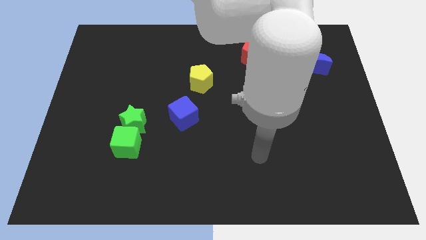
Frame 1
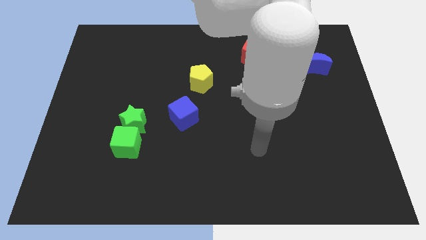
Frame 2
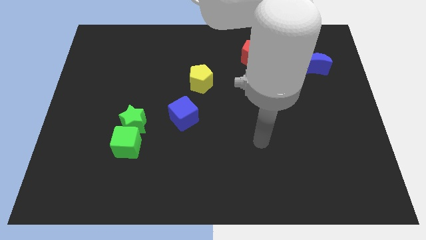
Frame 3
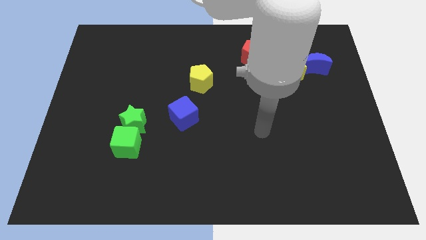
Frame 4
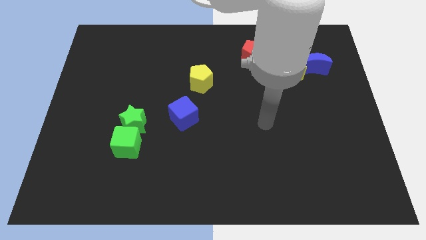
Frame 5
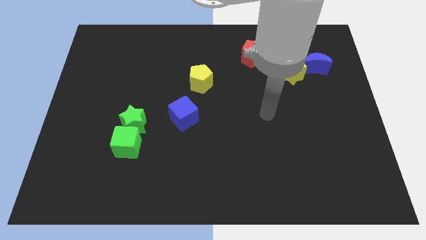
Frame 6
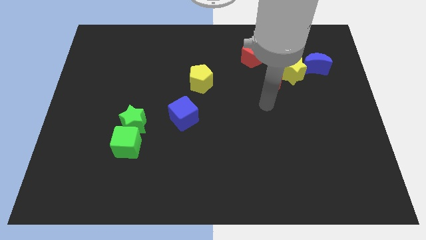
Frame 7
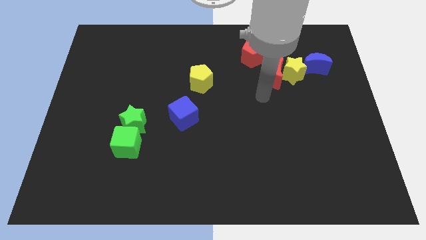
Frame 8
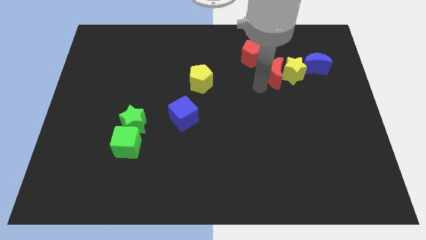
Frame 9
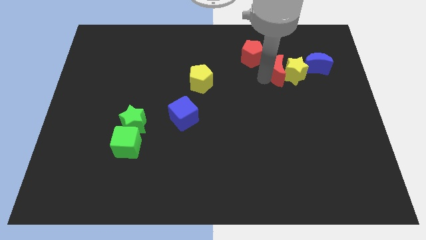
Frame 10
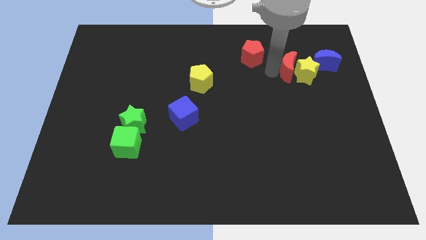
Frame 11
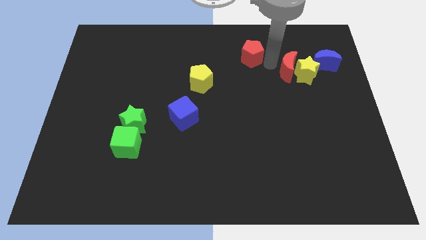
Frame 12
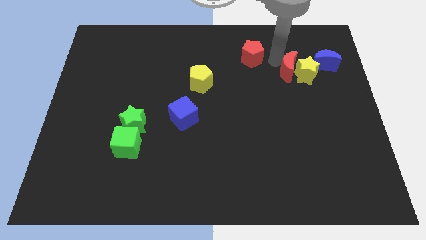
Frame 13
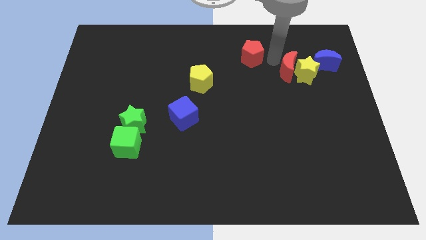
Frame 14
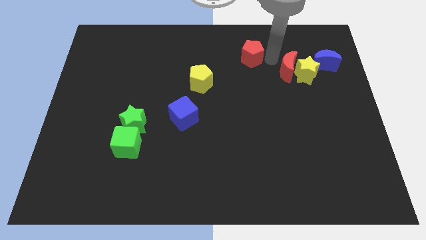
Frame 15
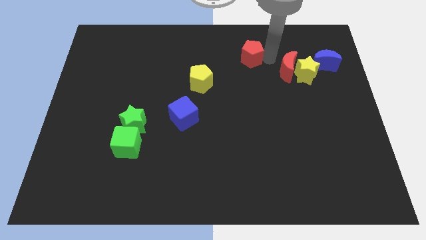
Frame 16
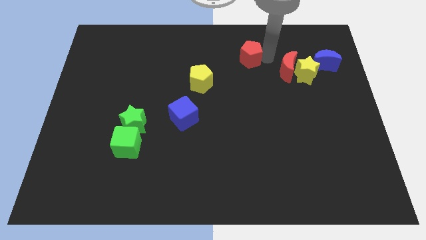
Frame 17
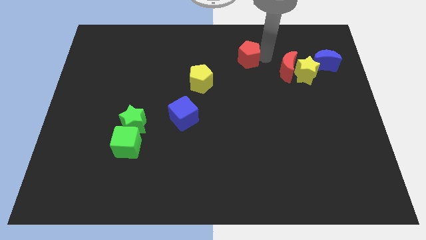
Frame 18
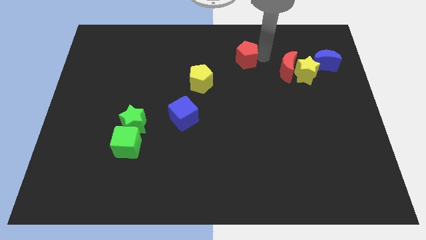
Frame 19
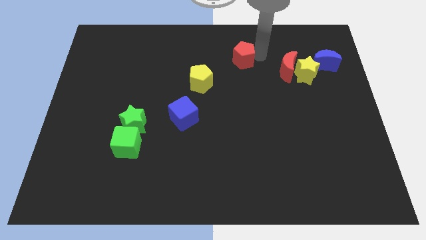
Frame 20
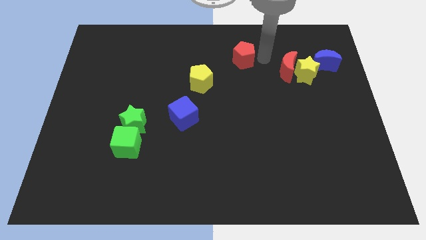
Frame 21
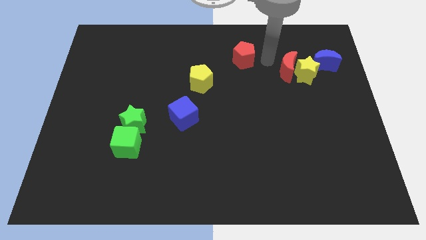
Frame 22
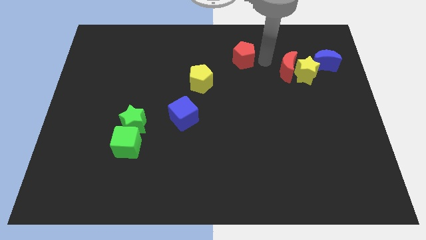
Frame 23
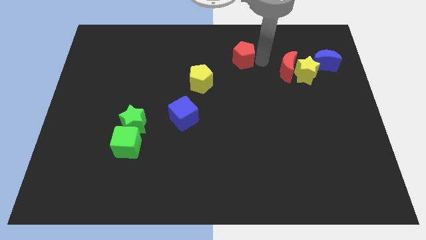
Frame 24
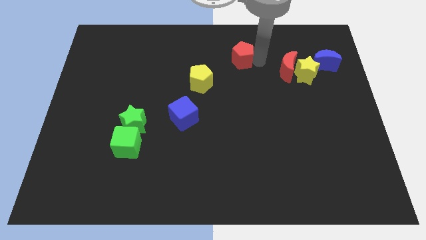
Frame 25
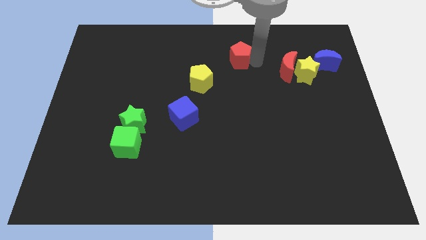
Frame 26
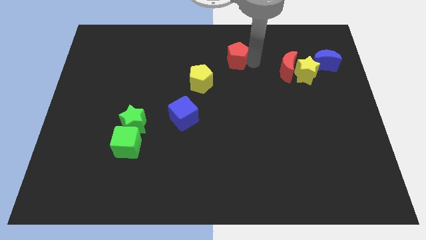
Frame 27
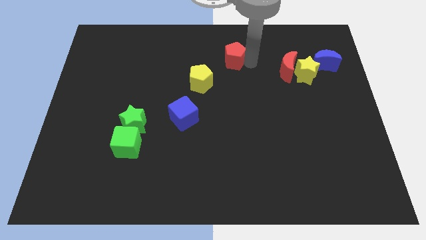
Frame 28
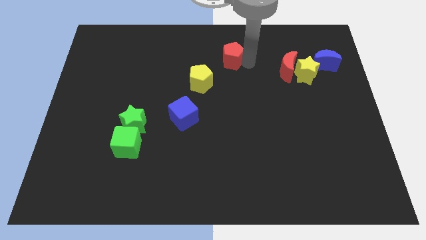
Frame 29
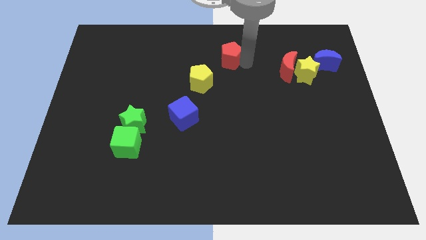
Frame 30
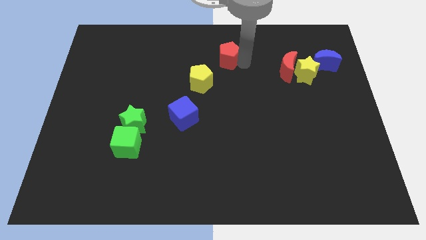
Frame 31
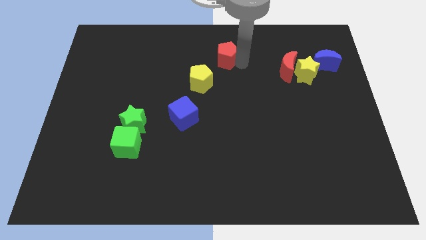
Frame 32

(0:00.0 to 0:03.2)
push the red pentagon a bit to the left

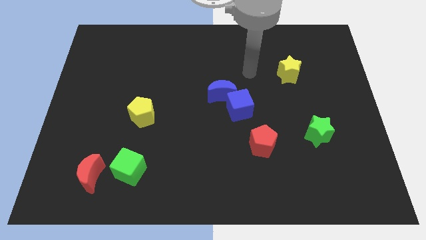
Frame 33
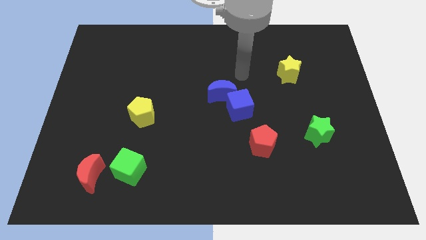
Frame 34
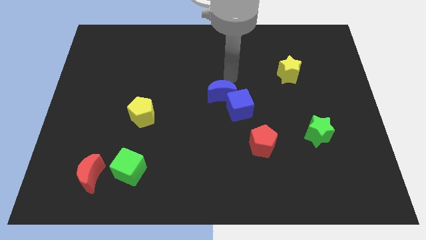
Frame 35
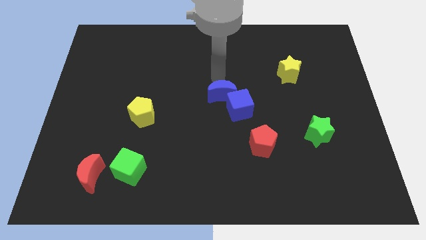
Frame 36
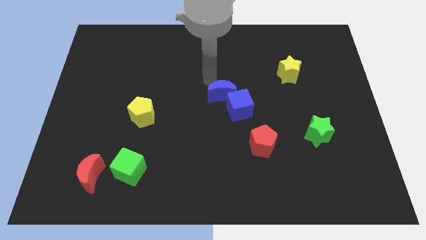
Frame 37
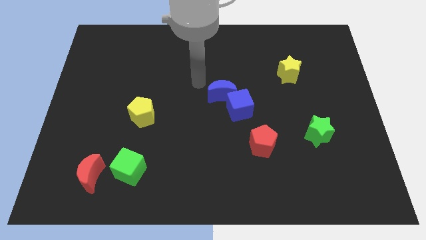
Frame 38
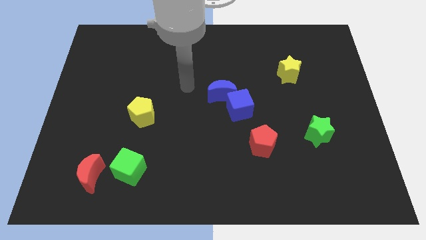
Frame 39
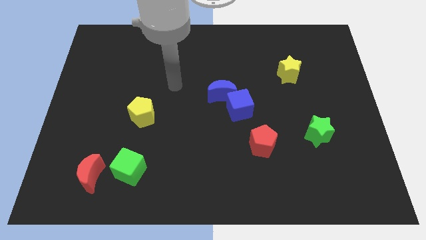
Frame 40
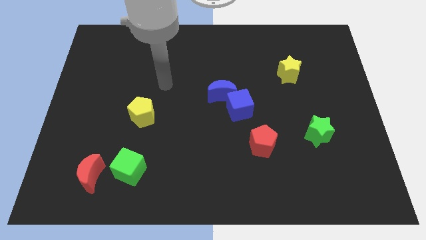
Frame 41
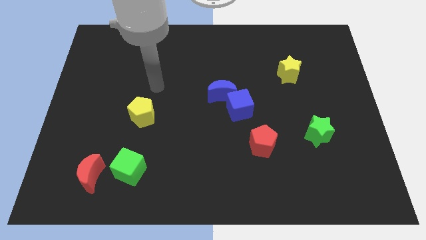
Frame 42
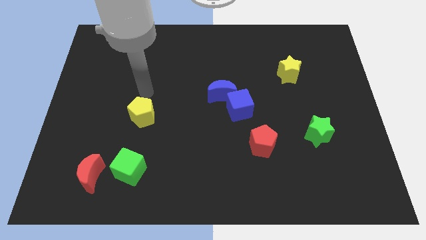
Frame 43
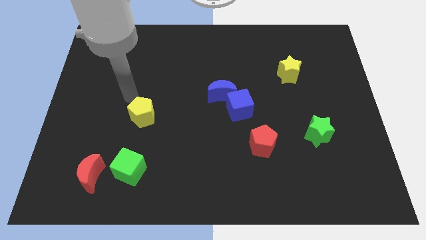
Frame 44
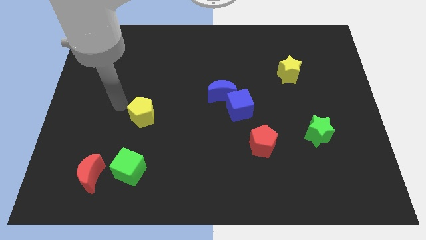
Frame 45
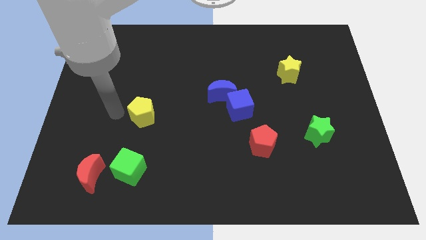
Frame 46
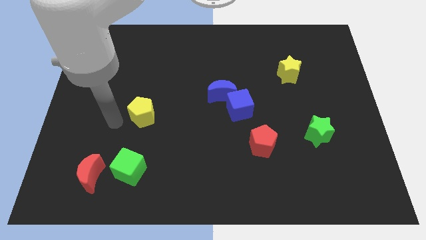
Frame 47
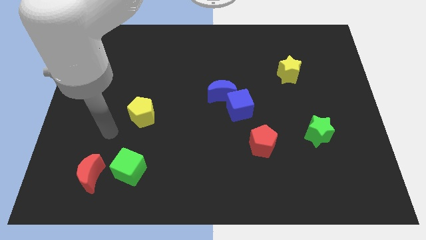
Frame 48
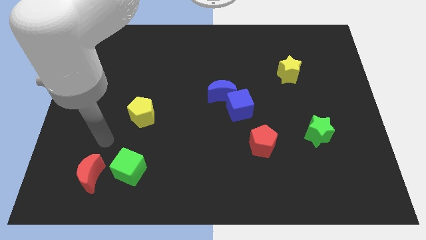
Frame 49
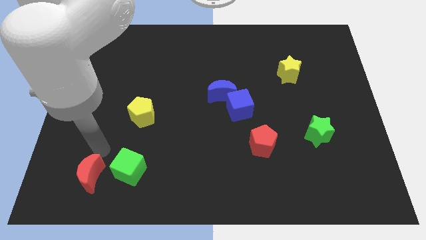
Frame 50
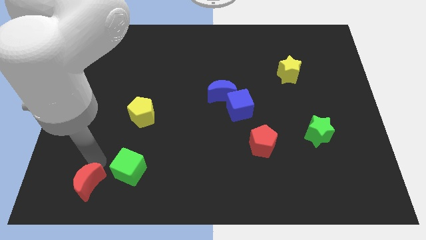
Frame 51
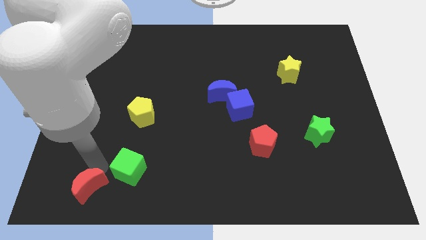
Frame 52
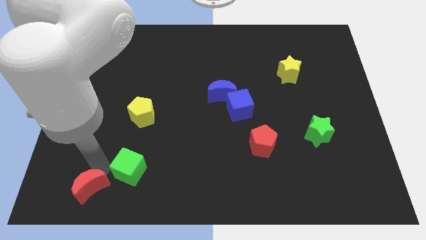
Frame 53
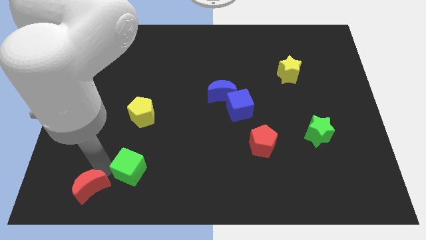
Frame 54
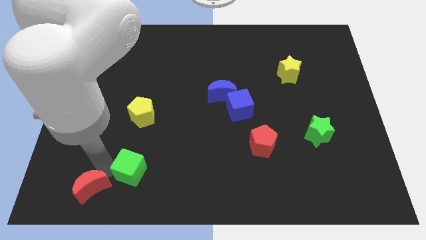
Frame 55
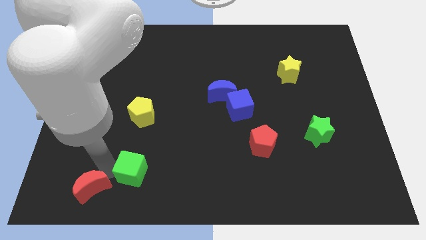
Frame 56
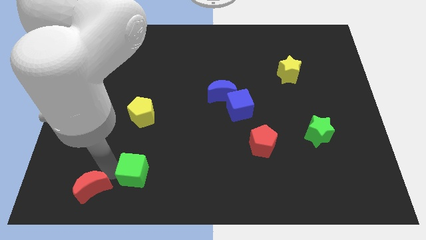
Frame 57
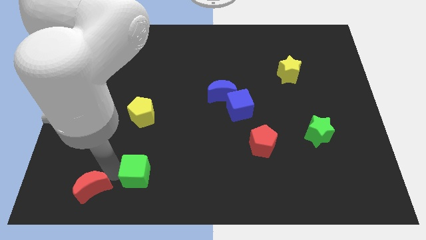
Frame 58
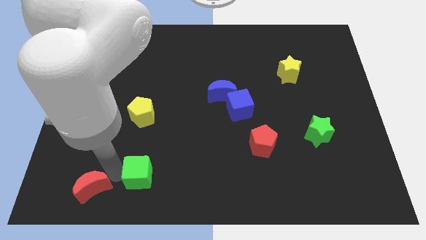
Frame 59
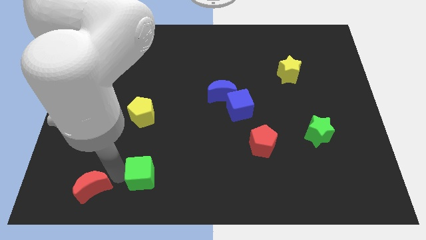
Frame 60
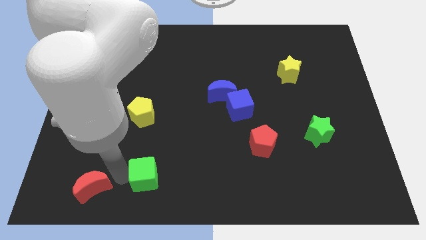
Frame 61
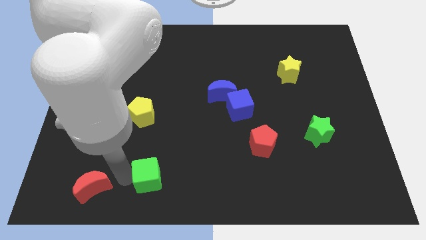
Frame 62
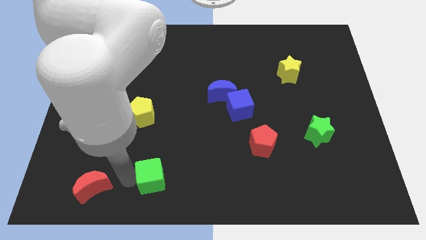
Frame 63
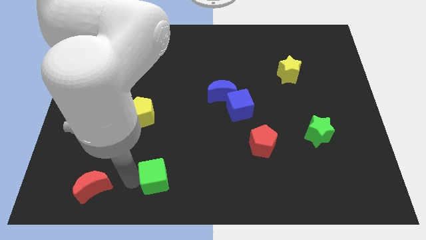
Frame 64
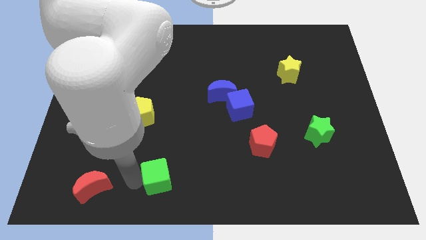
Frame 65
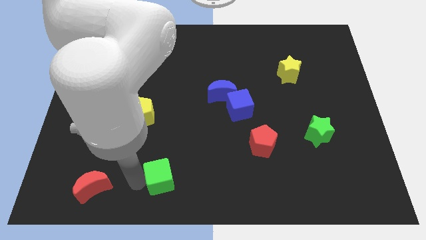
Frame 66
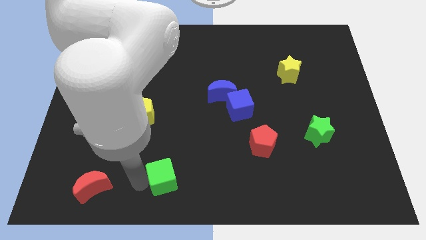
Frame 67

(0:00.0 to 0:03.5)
push the green cube slightly right

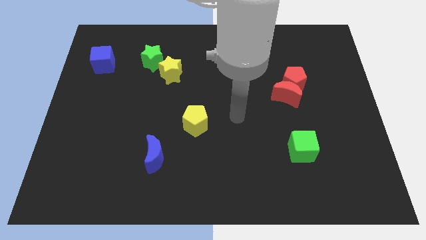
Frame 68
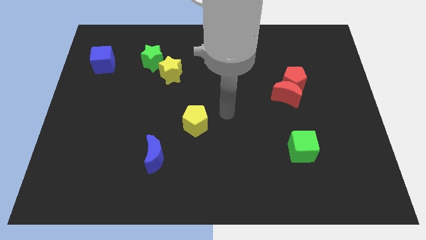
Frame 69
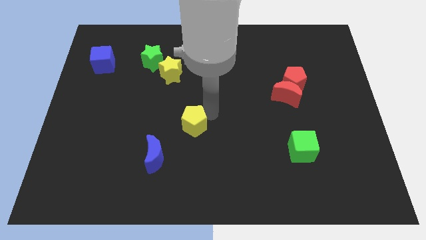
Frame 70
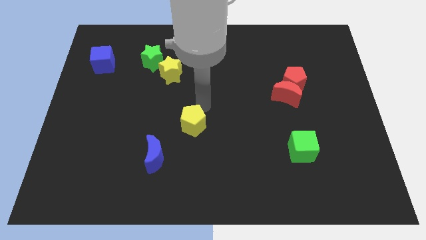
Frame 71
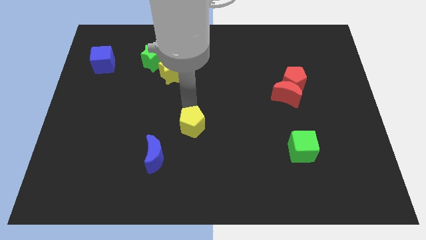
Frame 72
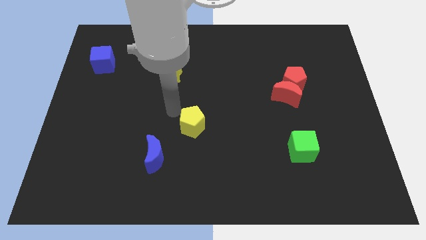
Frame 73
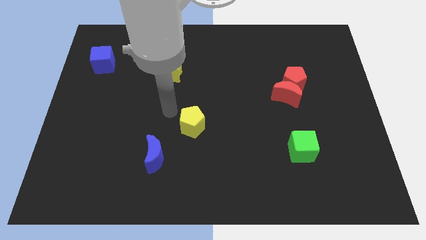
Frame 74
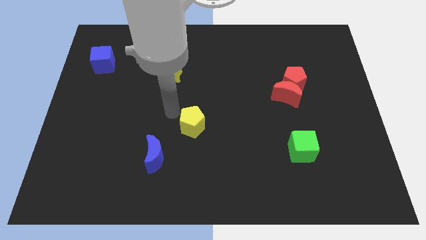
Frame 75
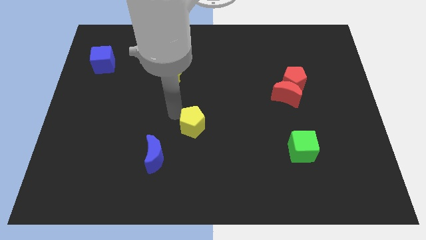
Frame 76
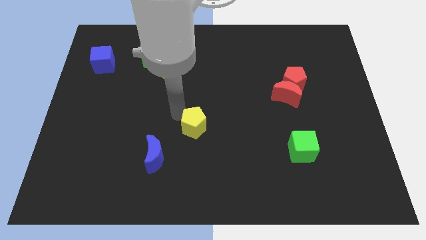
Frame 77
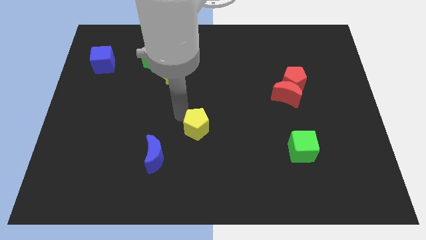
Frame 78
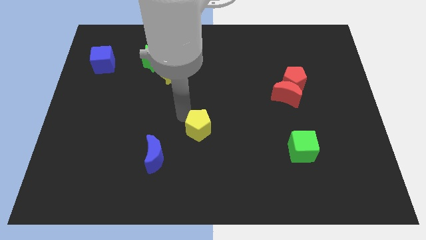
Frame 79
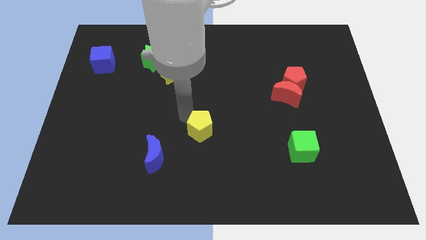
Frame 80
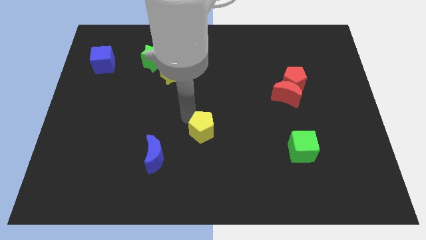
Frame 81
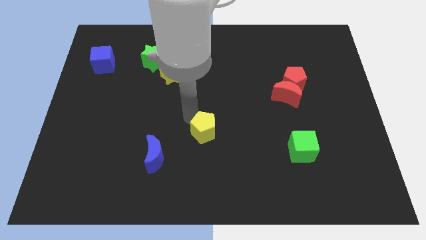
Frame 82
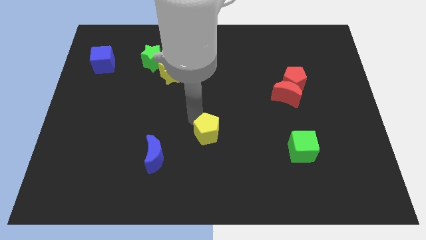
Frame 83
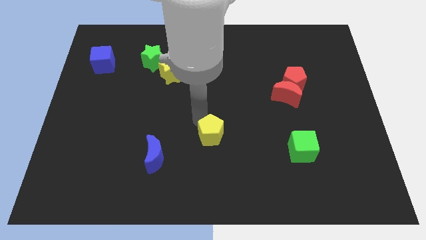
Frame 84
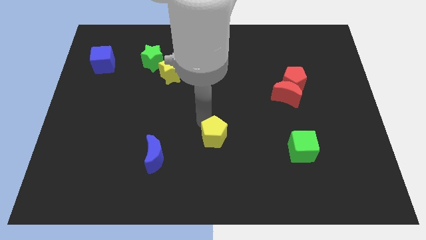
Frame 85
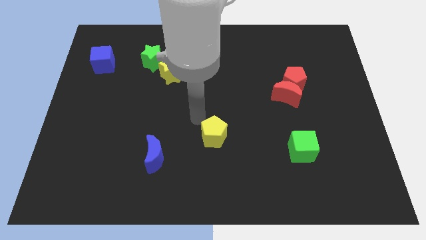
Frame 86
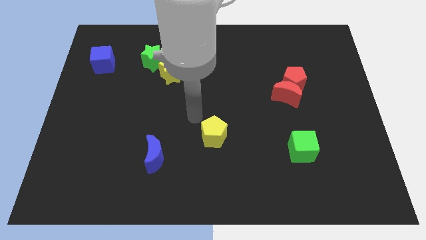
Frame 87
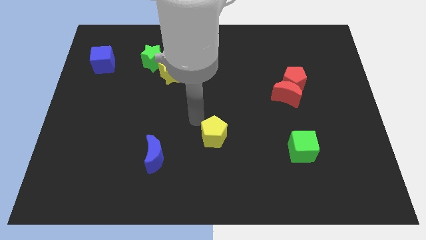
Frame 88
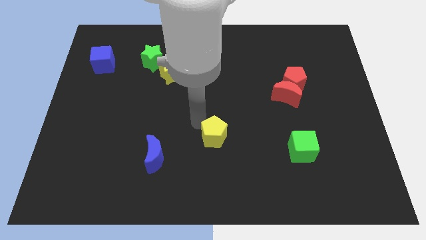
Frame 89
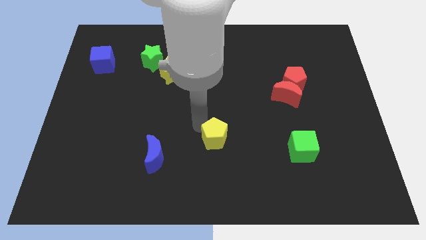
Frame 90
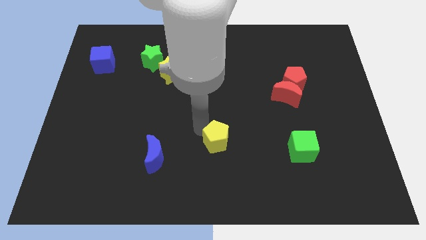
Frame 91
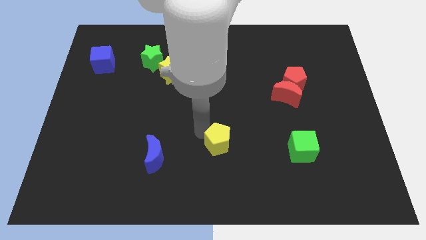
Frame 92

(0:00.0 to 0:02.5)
move the yellow pentagon a little diagonally downwards and right
